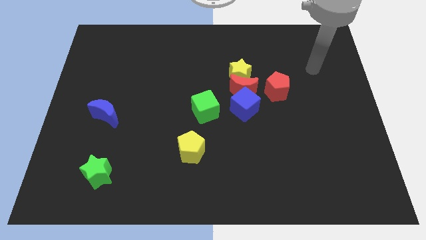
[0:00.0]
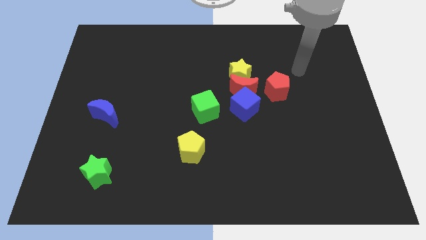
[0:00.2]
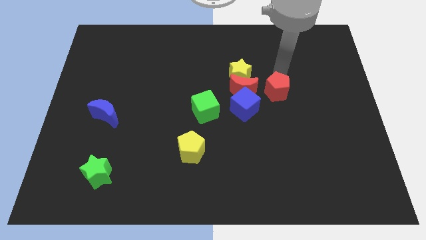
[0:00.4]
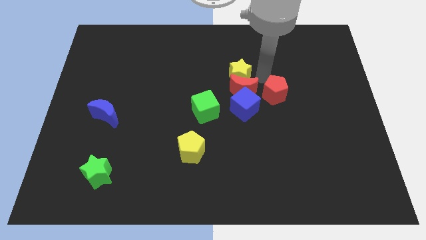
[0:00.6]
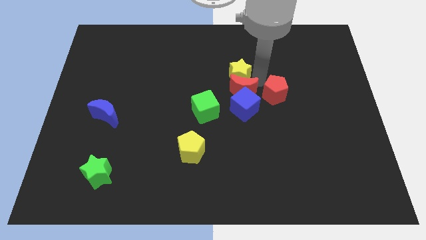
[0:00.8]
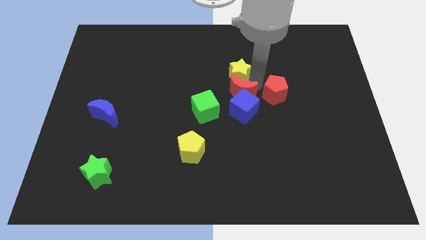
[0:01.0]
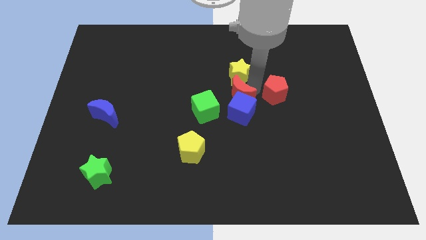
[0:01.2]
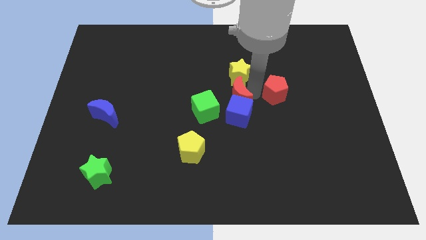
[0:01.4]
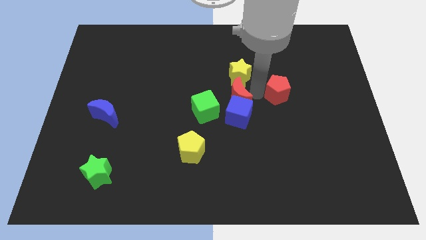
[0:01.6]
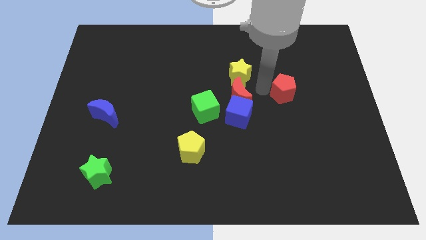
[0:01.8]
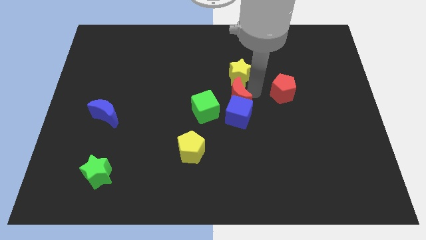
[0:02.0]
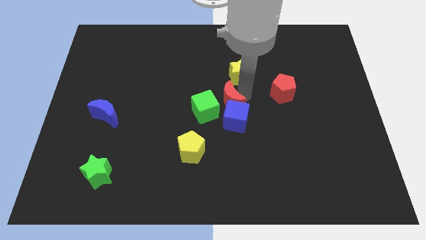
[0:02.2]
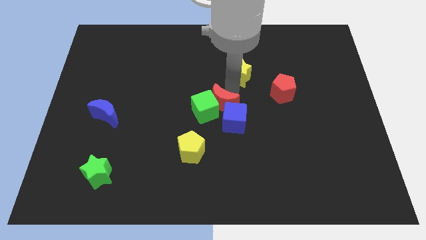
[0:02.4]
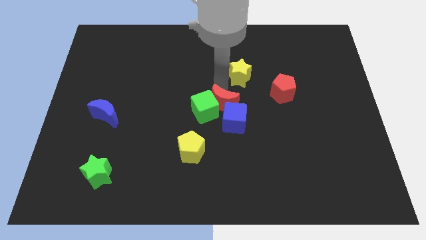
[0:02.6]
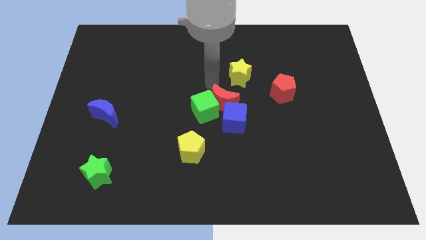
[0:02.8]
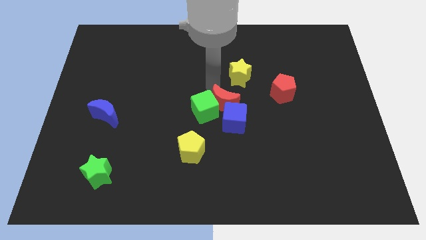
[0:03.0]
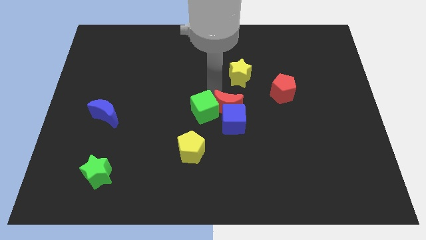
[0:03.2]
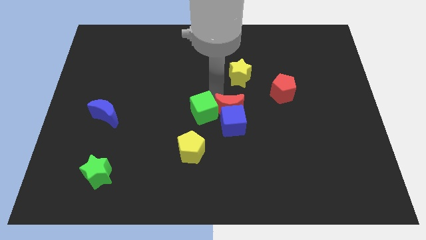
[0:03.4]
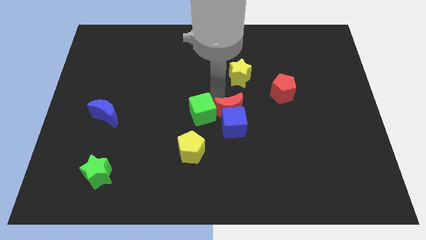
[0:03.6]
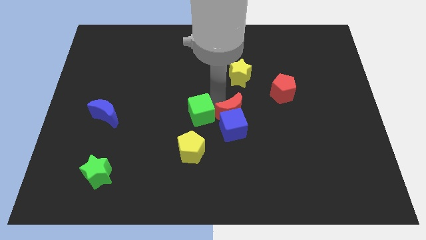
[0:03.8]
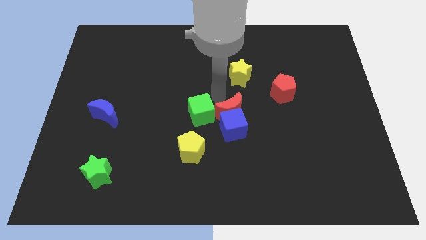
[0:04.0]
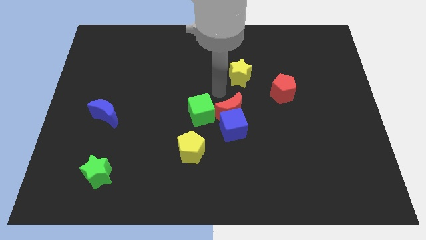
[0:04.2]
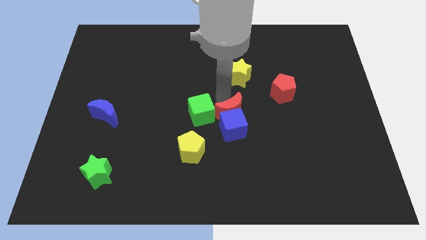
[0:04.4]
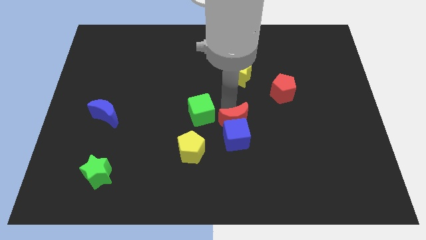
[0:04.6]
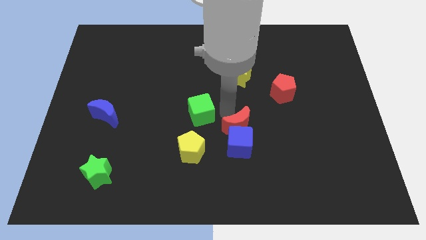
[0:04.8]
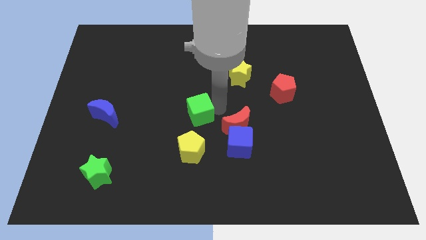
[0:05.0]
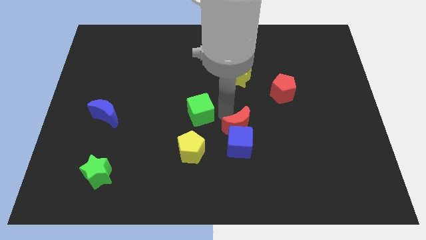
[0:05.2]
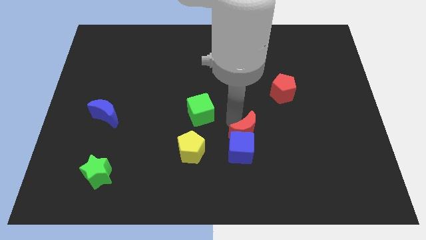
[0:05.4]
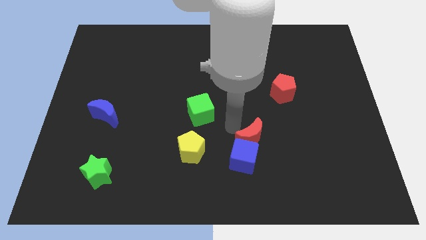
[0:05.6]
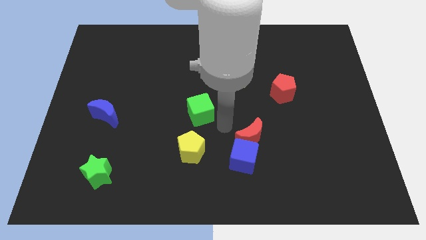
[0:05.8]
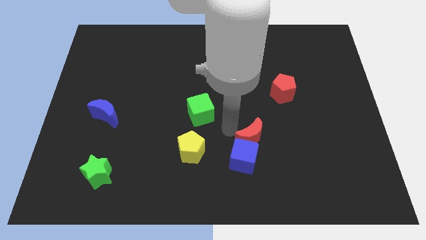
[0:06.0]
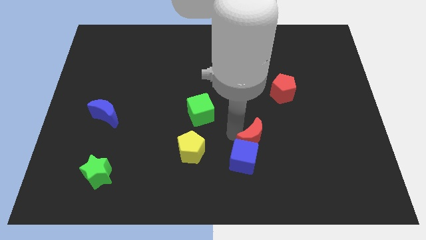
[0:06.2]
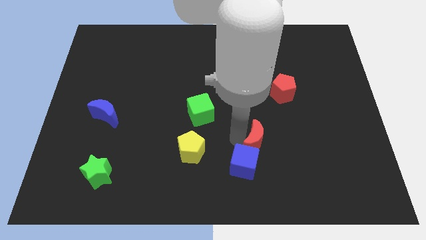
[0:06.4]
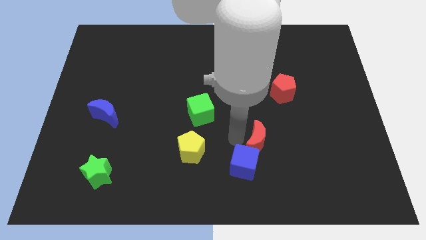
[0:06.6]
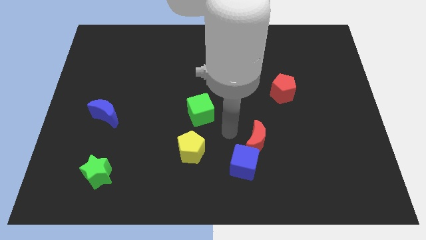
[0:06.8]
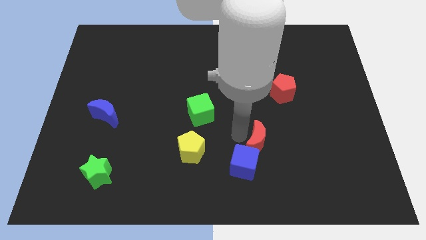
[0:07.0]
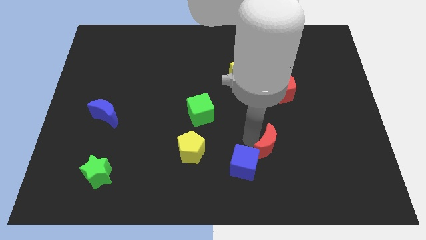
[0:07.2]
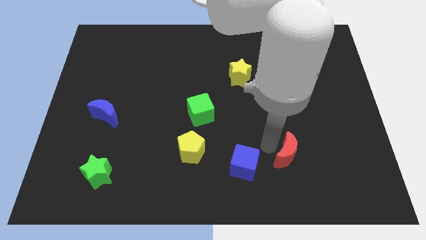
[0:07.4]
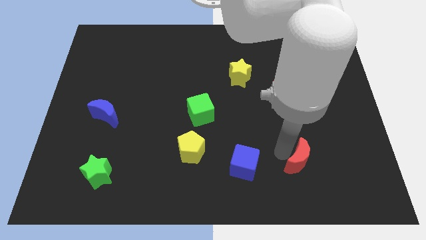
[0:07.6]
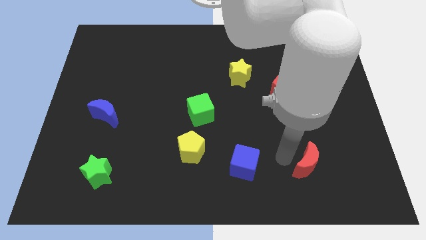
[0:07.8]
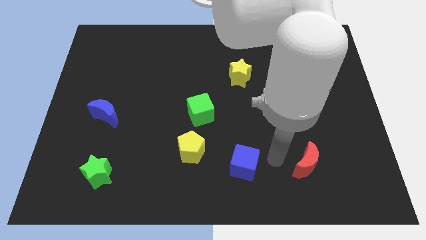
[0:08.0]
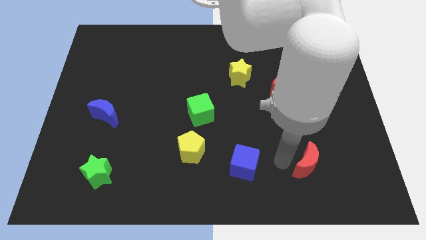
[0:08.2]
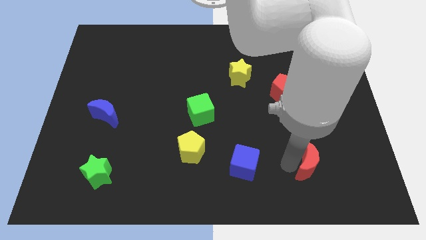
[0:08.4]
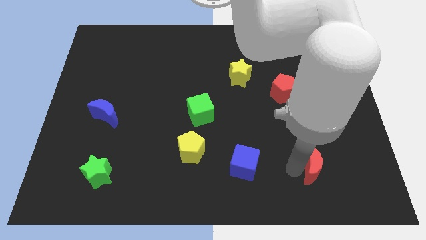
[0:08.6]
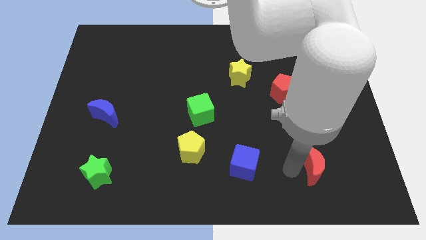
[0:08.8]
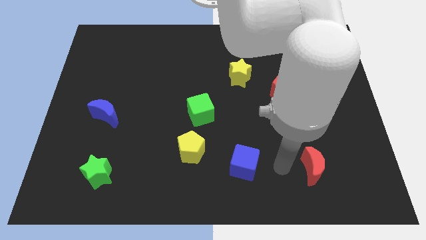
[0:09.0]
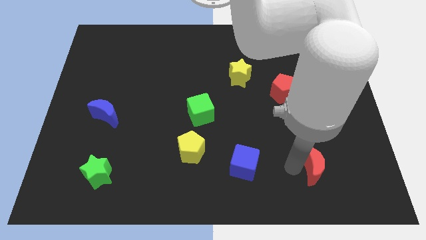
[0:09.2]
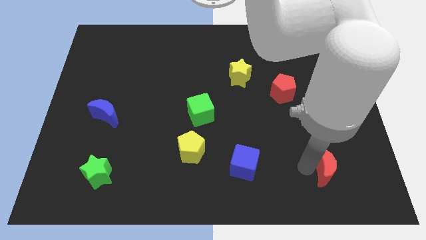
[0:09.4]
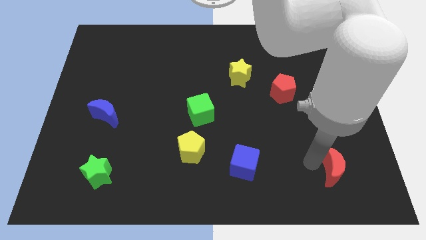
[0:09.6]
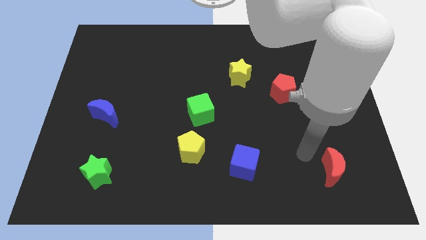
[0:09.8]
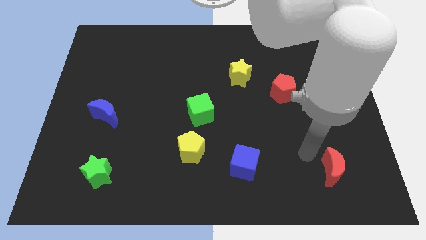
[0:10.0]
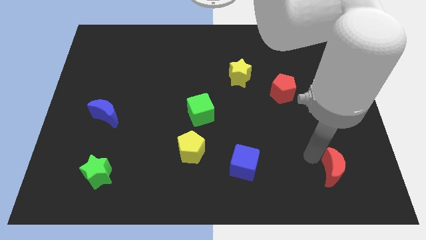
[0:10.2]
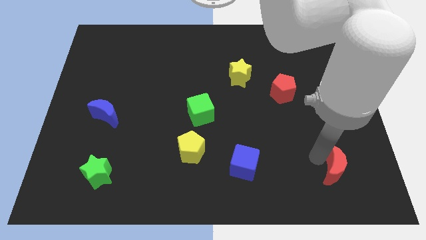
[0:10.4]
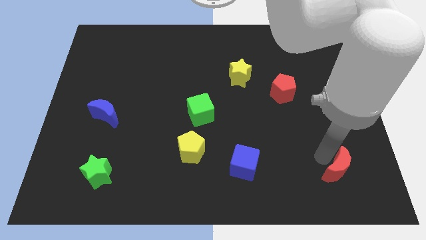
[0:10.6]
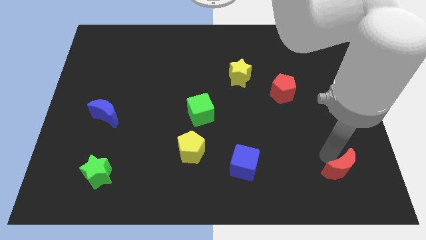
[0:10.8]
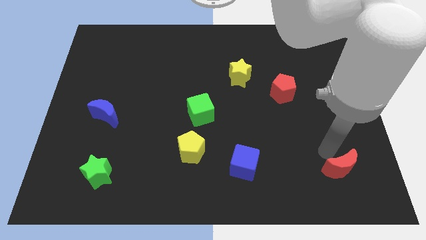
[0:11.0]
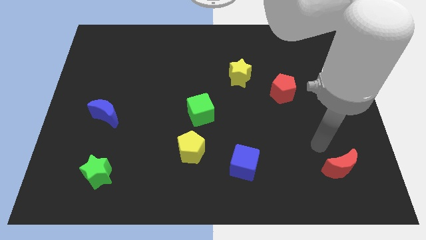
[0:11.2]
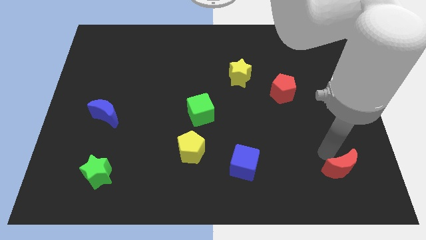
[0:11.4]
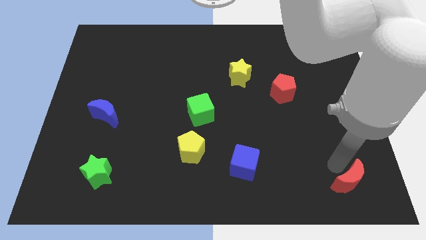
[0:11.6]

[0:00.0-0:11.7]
push the red moon to the bottom right corner

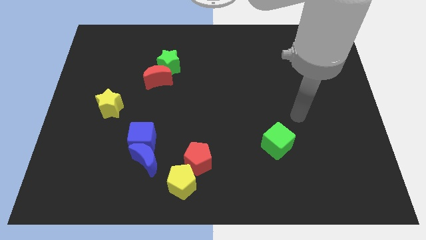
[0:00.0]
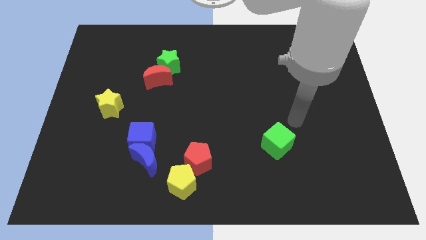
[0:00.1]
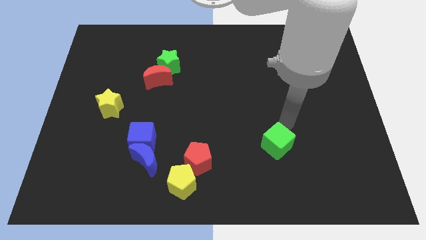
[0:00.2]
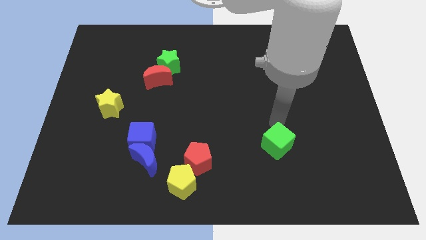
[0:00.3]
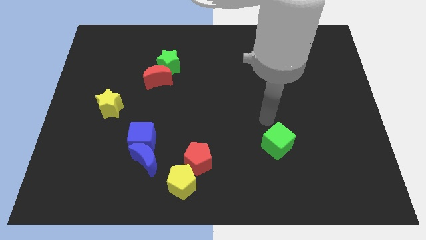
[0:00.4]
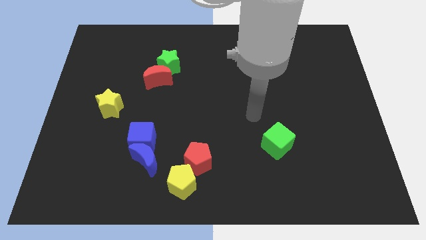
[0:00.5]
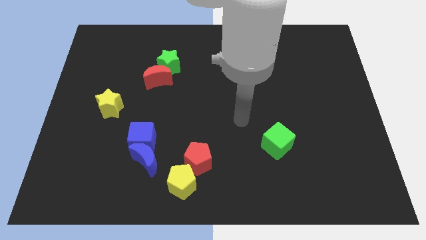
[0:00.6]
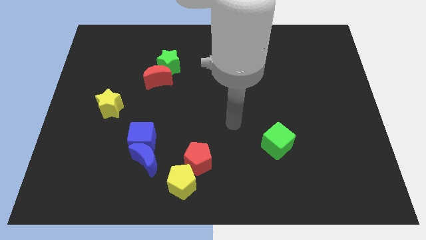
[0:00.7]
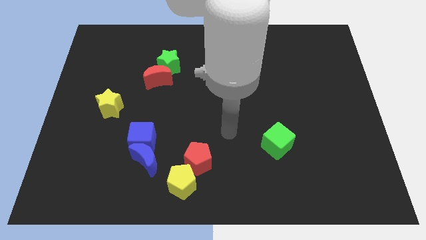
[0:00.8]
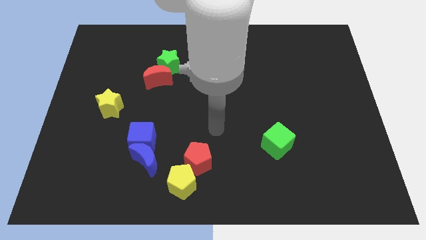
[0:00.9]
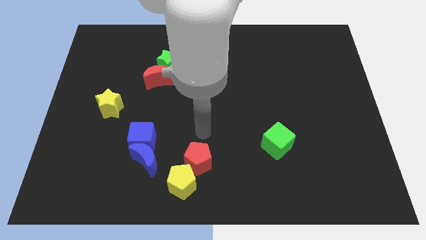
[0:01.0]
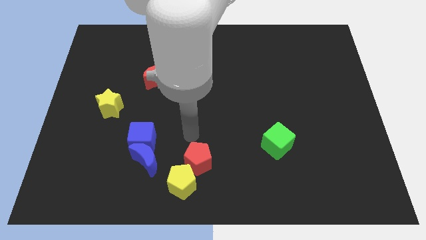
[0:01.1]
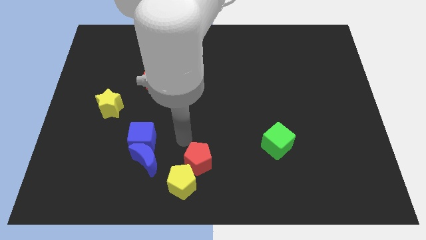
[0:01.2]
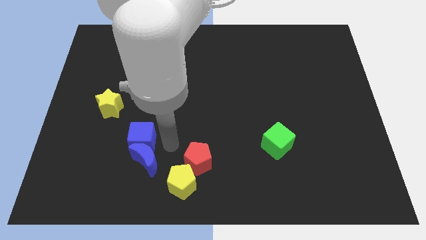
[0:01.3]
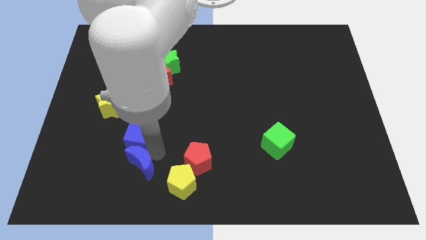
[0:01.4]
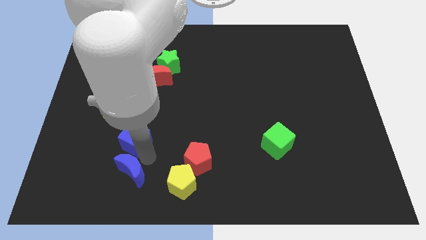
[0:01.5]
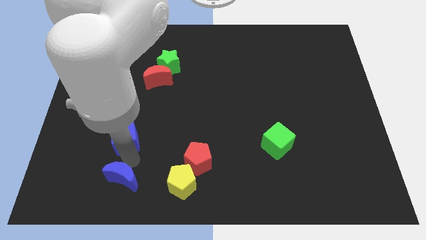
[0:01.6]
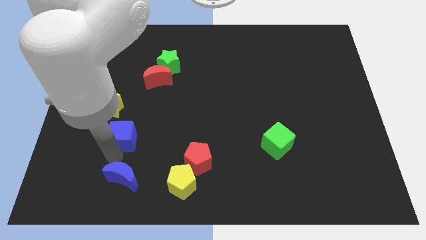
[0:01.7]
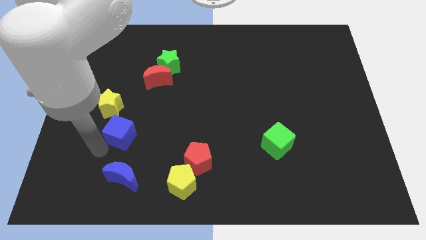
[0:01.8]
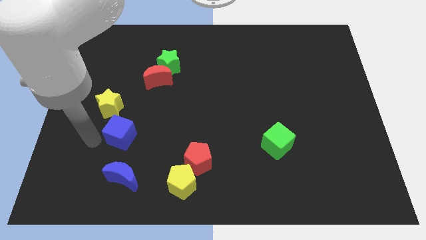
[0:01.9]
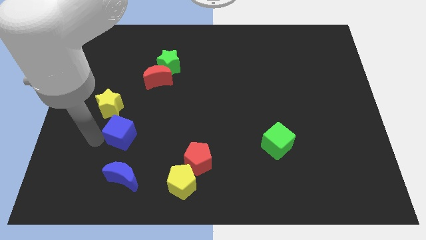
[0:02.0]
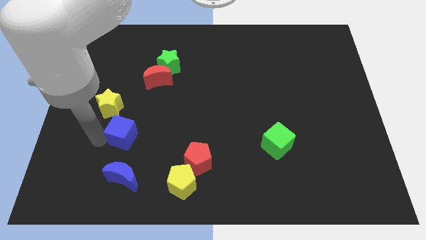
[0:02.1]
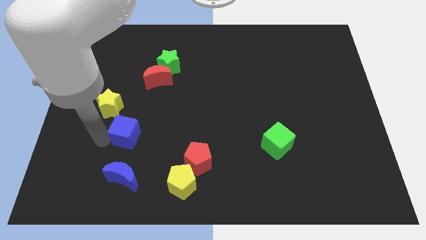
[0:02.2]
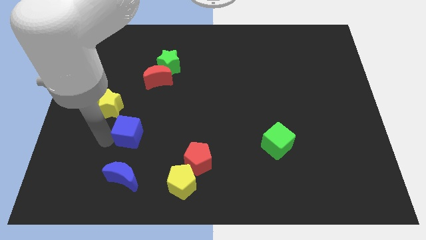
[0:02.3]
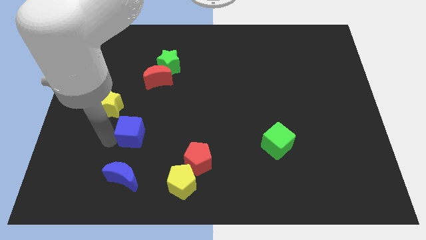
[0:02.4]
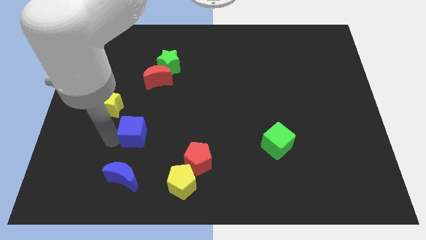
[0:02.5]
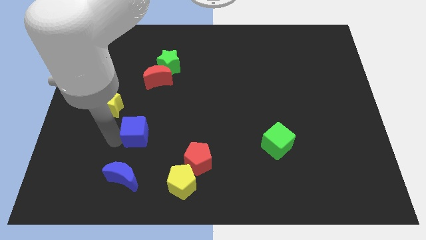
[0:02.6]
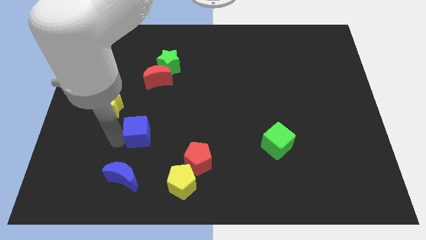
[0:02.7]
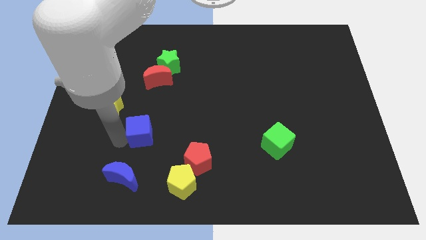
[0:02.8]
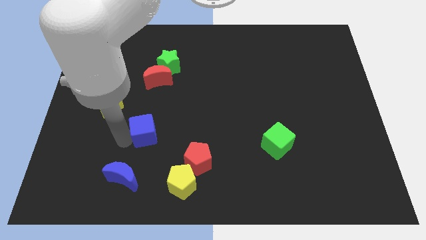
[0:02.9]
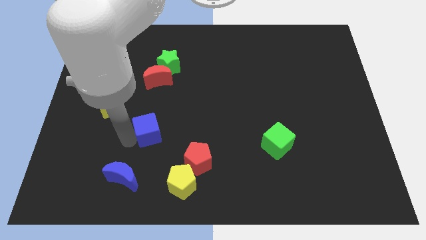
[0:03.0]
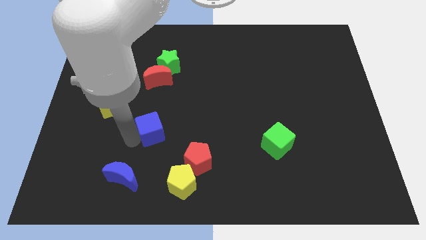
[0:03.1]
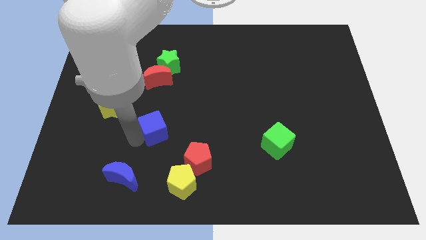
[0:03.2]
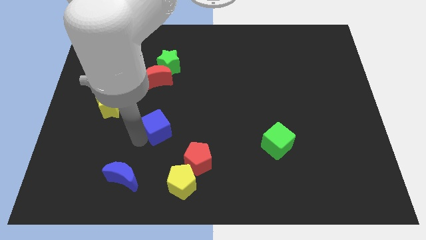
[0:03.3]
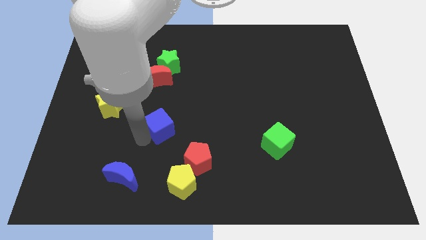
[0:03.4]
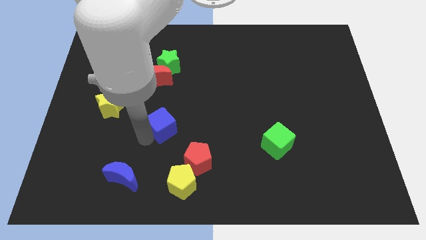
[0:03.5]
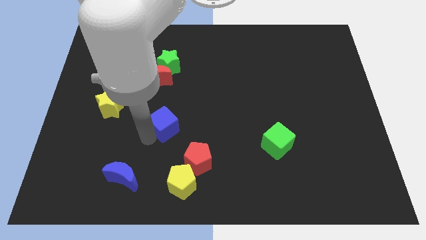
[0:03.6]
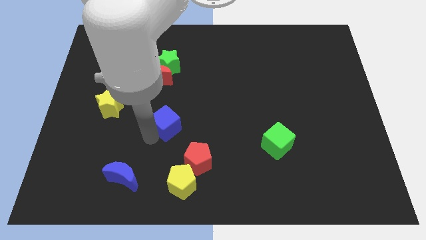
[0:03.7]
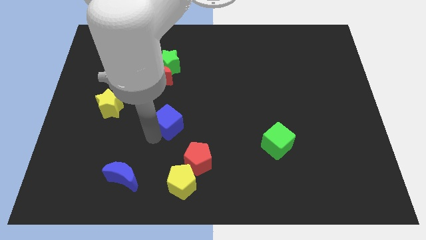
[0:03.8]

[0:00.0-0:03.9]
slide the blue cube to the center of the board
